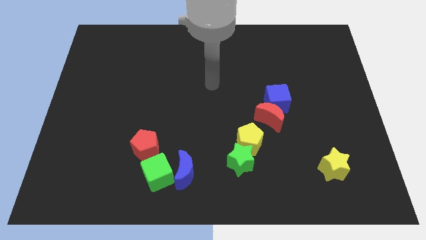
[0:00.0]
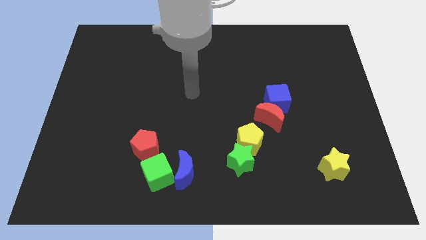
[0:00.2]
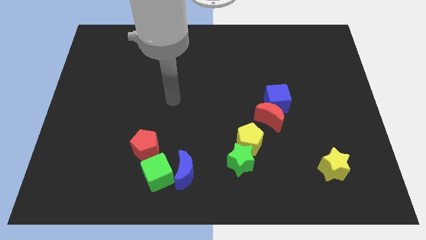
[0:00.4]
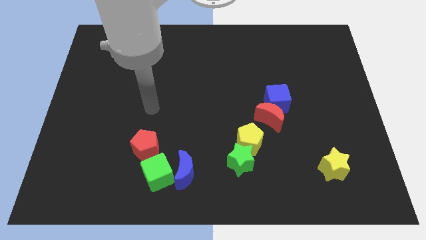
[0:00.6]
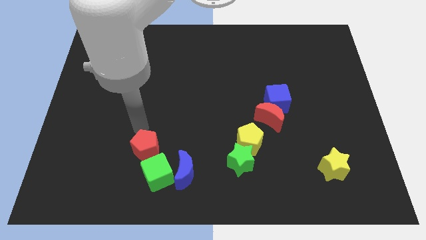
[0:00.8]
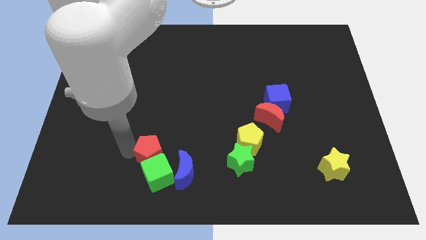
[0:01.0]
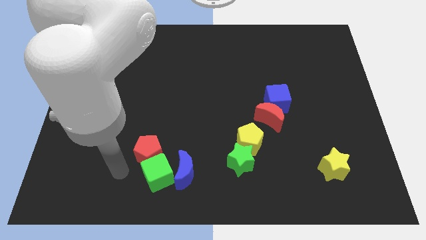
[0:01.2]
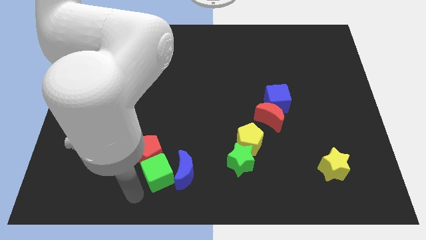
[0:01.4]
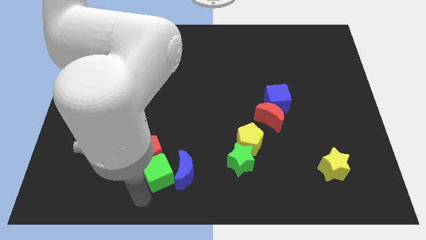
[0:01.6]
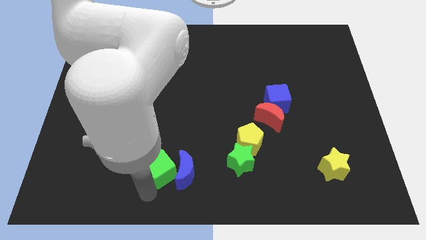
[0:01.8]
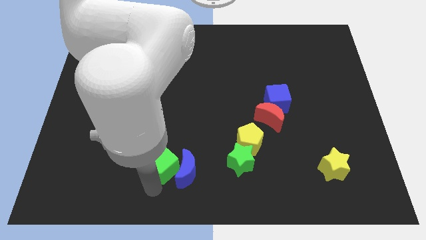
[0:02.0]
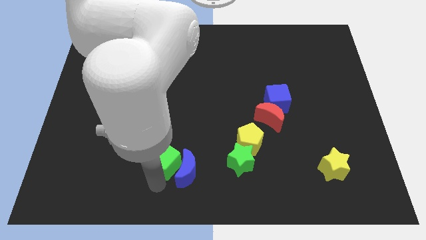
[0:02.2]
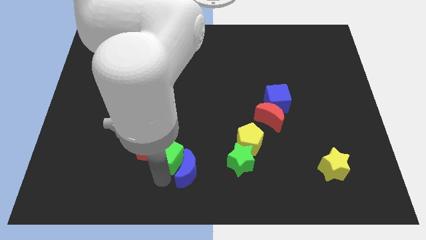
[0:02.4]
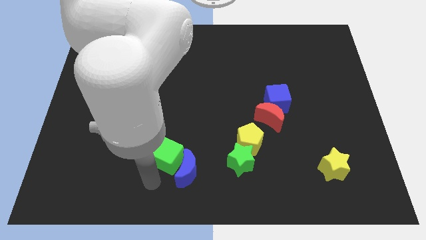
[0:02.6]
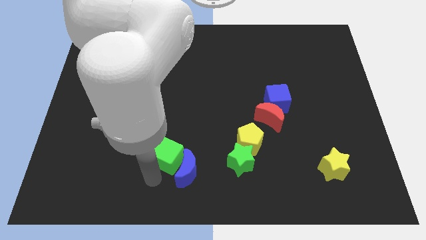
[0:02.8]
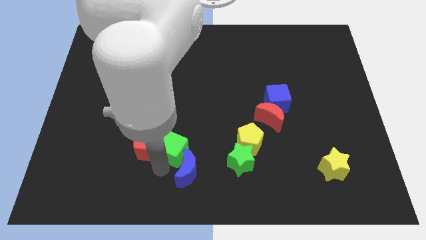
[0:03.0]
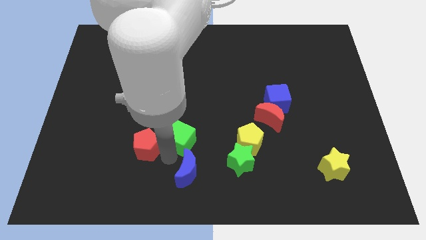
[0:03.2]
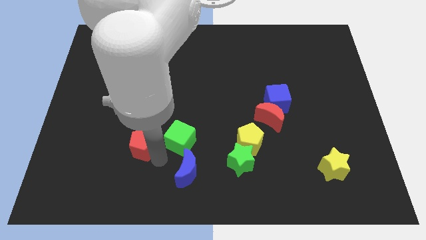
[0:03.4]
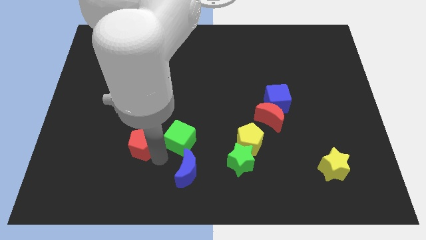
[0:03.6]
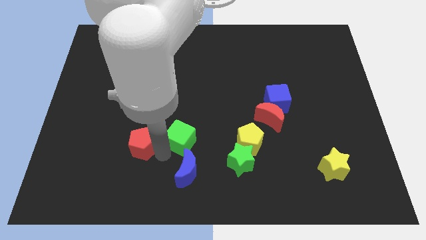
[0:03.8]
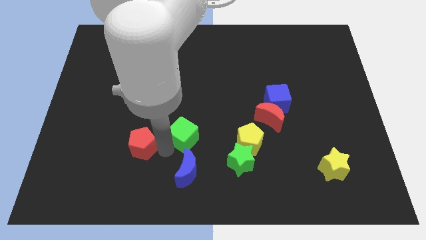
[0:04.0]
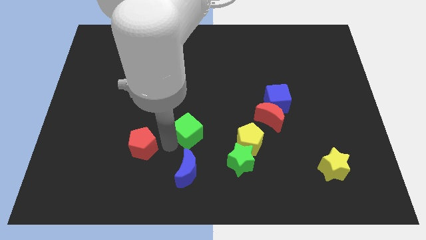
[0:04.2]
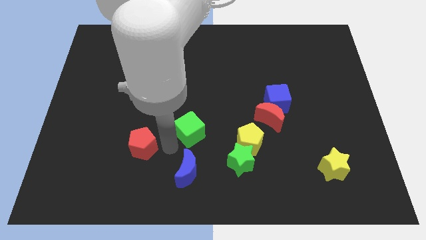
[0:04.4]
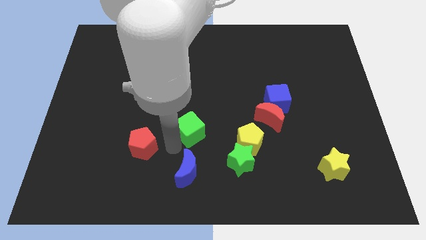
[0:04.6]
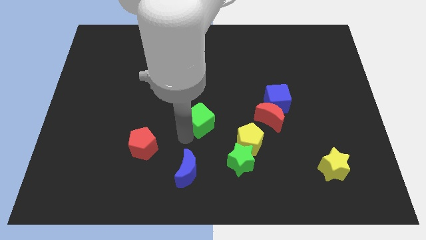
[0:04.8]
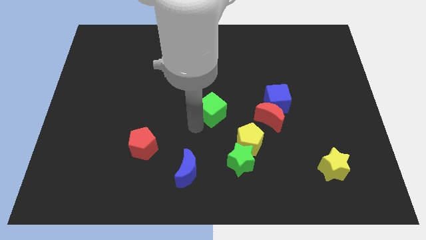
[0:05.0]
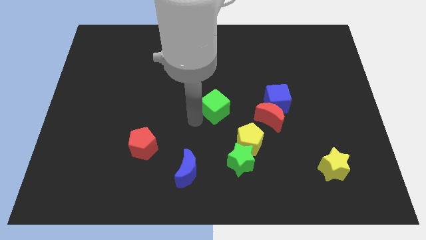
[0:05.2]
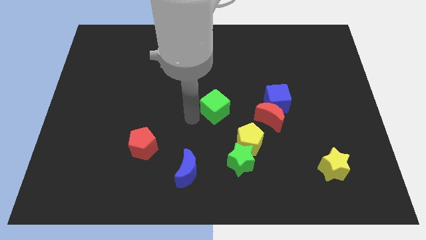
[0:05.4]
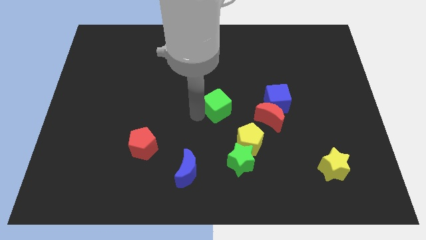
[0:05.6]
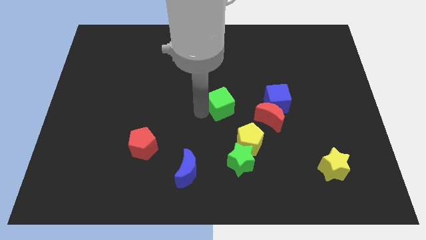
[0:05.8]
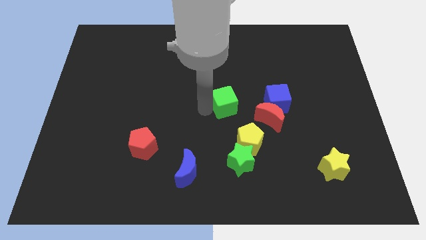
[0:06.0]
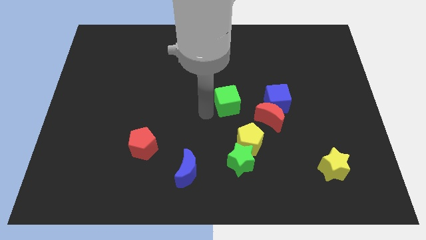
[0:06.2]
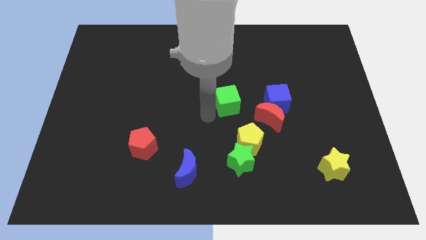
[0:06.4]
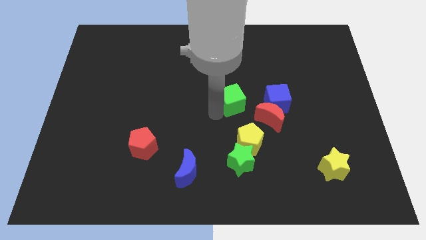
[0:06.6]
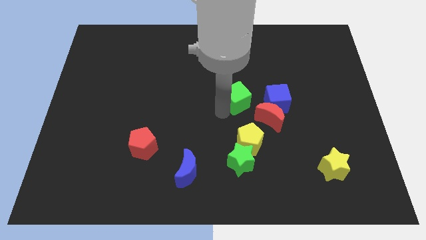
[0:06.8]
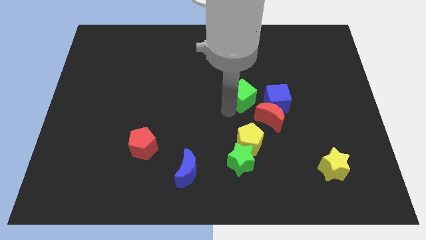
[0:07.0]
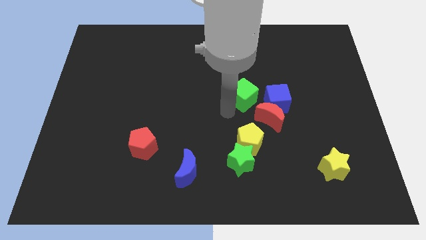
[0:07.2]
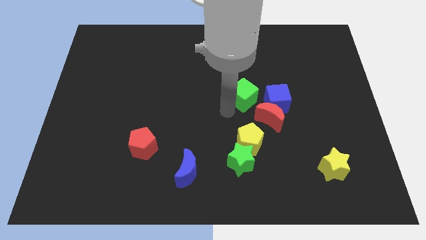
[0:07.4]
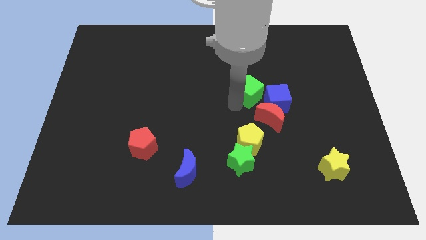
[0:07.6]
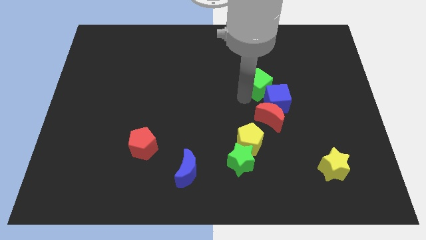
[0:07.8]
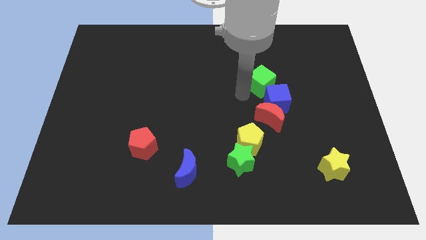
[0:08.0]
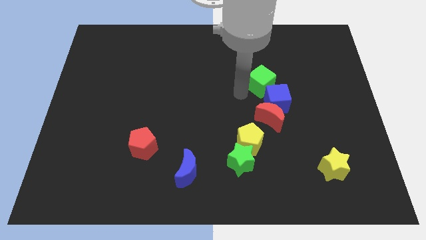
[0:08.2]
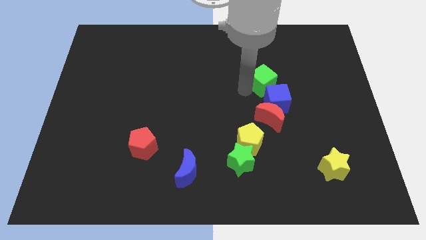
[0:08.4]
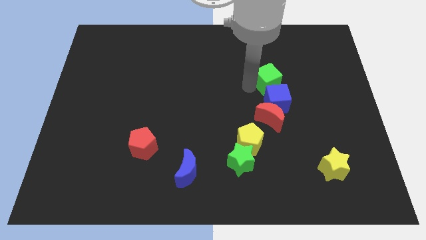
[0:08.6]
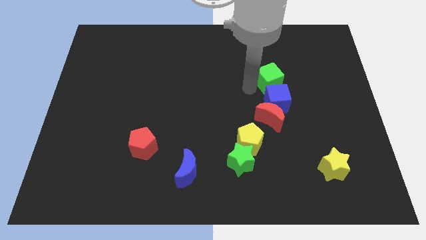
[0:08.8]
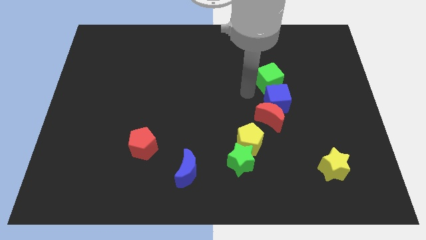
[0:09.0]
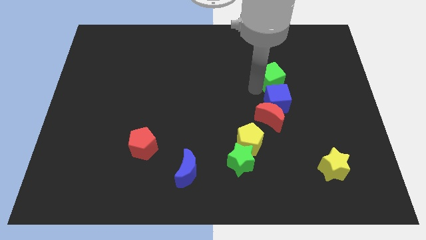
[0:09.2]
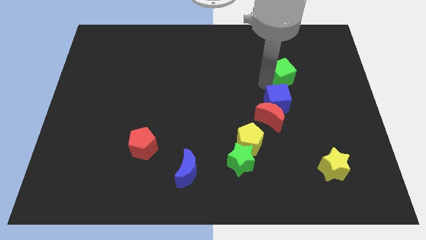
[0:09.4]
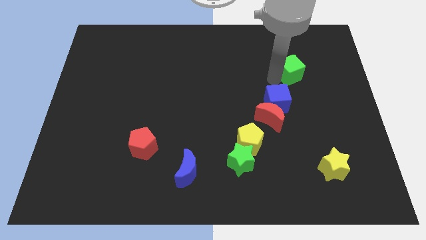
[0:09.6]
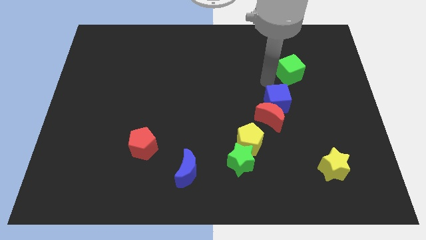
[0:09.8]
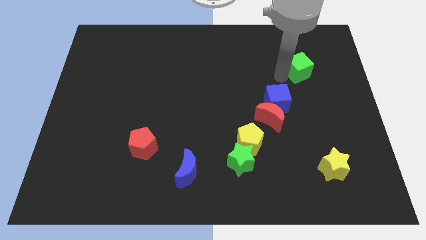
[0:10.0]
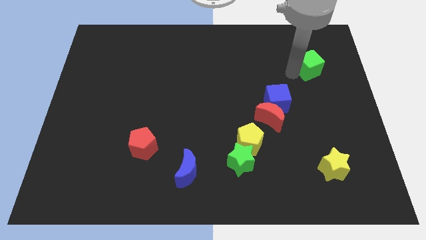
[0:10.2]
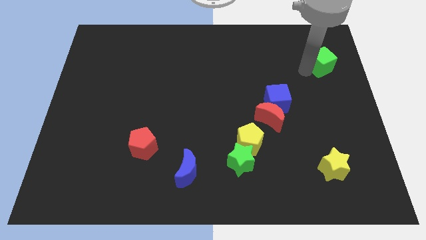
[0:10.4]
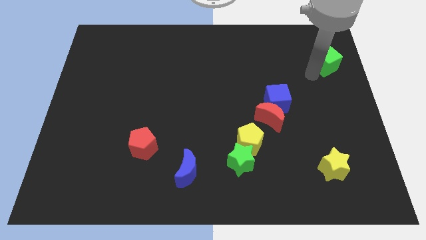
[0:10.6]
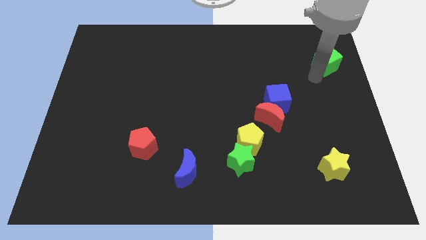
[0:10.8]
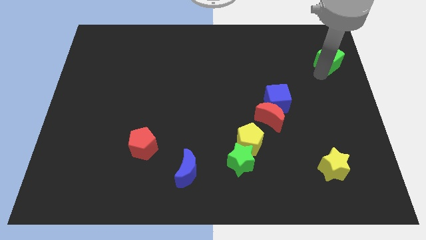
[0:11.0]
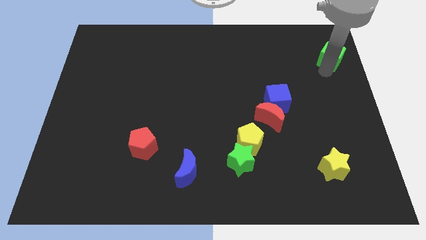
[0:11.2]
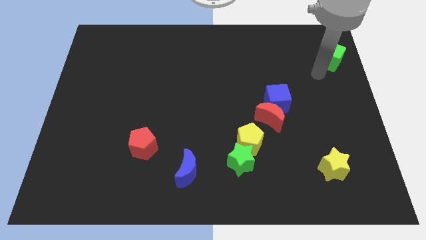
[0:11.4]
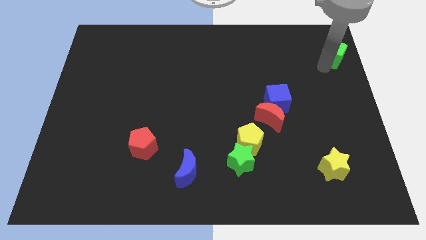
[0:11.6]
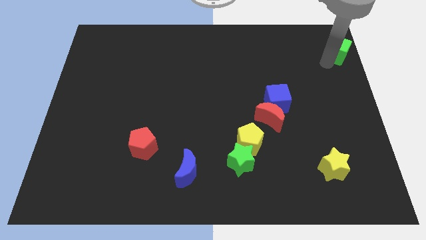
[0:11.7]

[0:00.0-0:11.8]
slide the green cube to the top right corner
